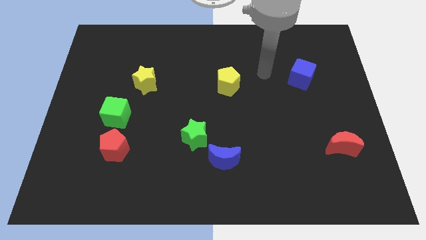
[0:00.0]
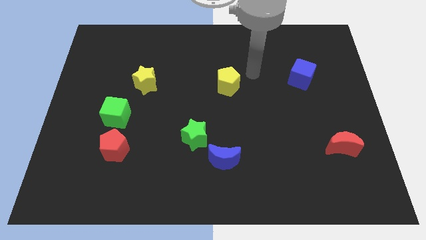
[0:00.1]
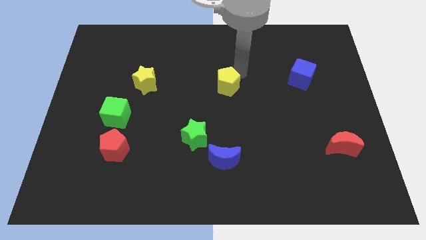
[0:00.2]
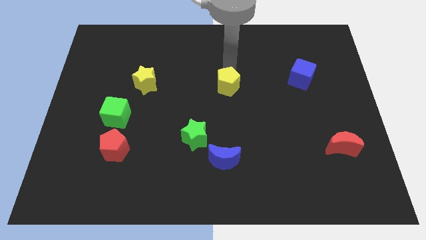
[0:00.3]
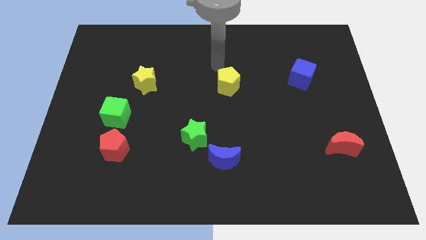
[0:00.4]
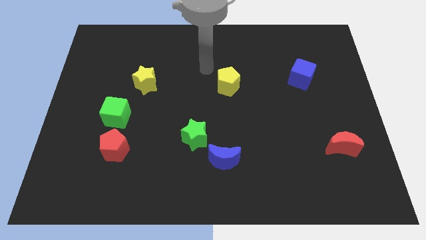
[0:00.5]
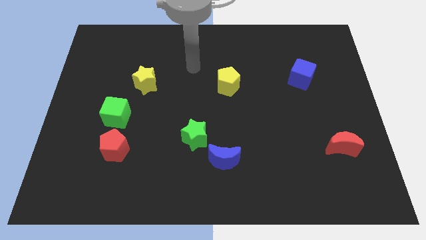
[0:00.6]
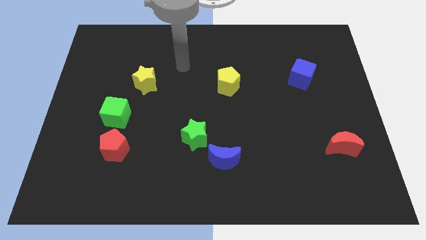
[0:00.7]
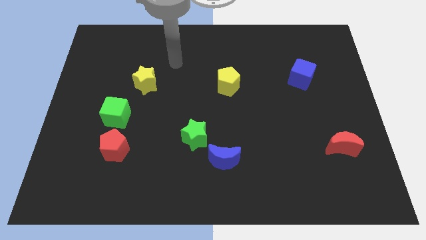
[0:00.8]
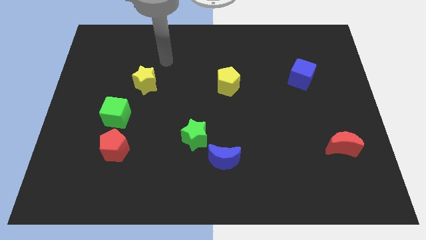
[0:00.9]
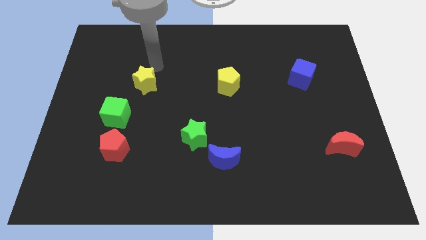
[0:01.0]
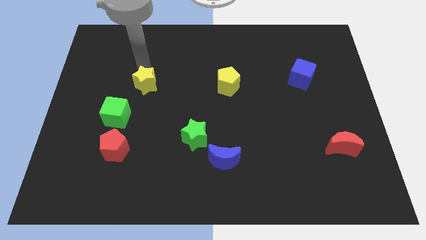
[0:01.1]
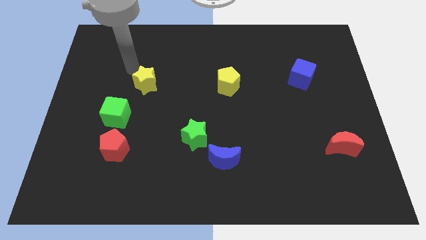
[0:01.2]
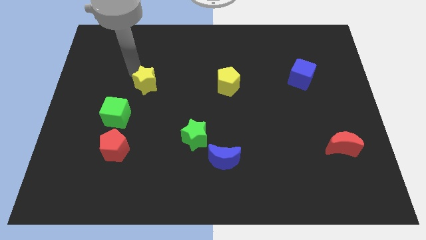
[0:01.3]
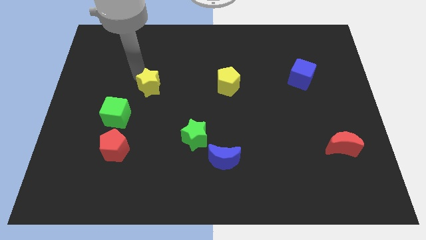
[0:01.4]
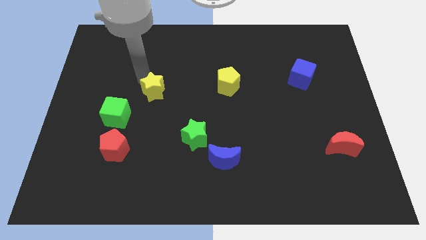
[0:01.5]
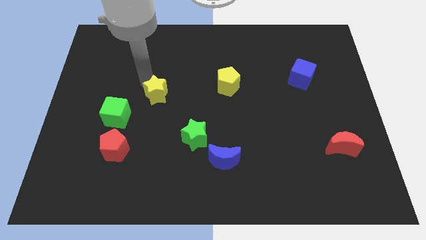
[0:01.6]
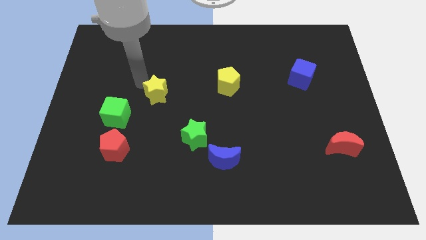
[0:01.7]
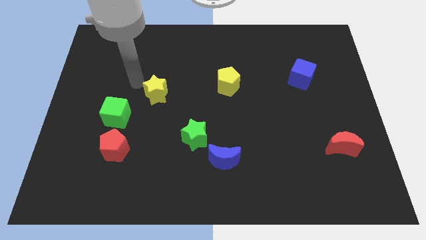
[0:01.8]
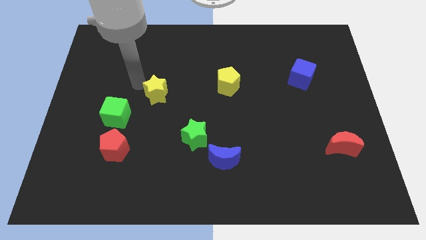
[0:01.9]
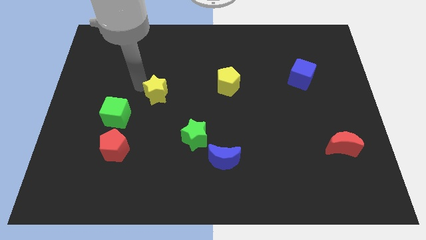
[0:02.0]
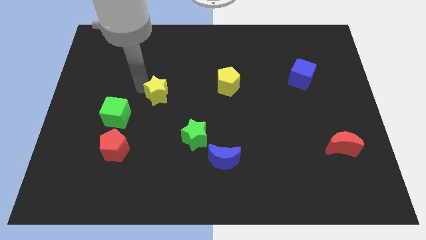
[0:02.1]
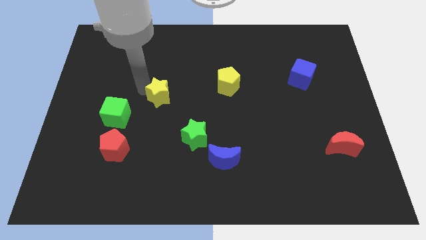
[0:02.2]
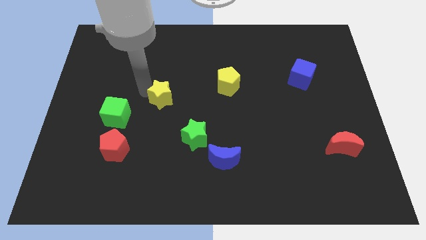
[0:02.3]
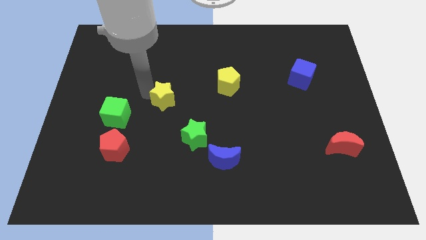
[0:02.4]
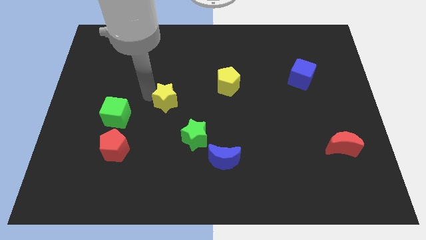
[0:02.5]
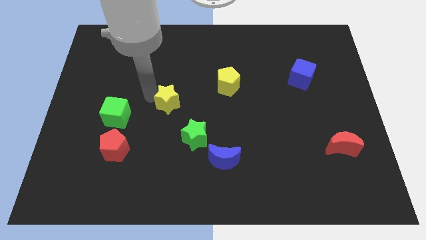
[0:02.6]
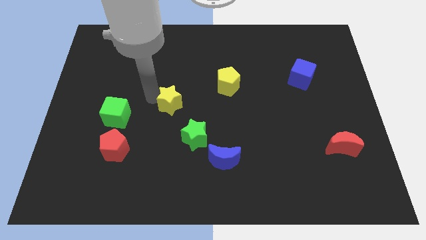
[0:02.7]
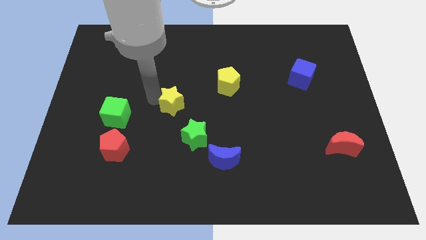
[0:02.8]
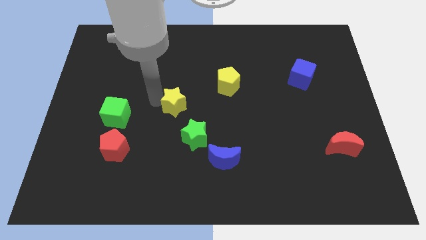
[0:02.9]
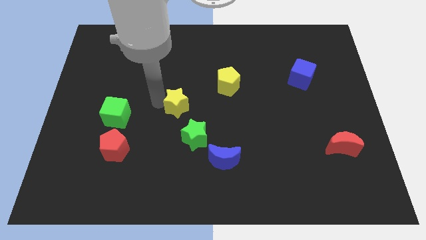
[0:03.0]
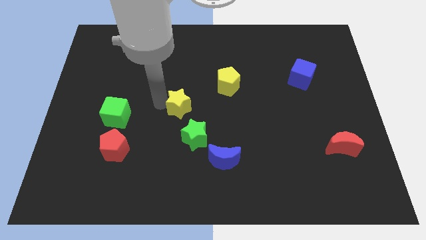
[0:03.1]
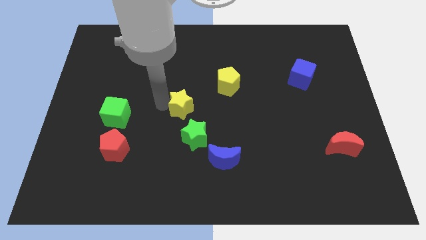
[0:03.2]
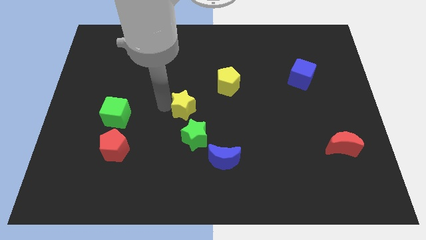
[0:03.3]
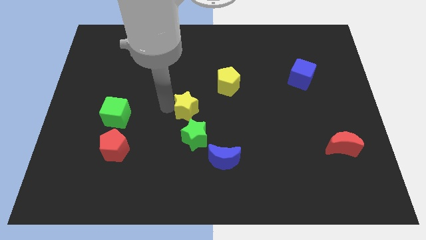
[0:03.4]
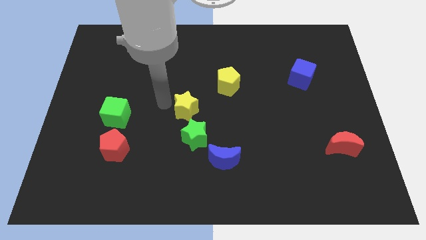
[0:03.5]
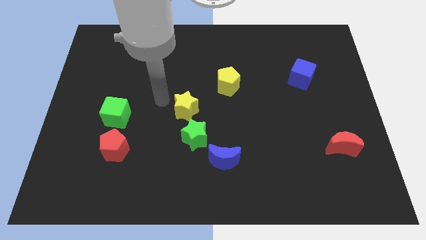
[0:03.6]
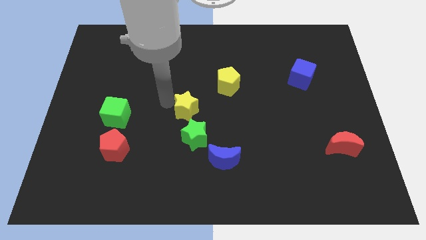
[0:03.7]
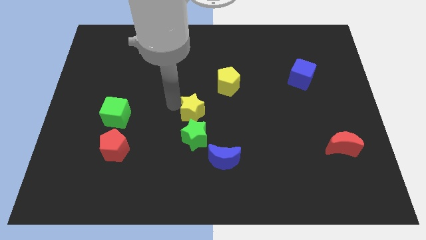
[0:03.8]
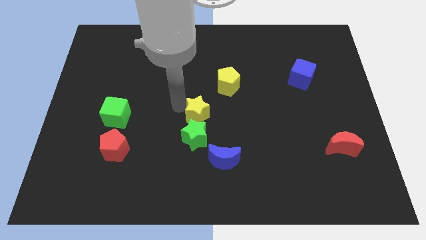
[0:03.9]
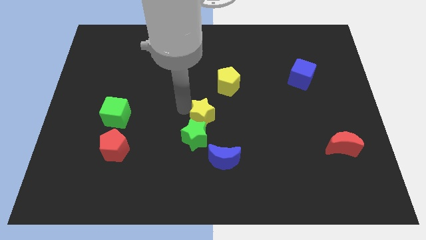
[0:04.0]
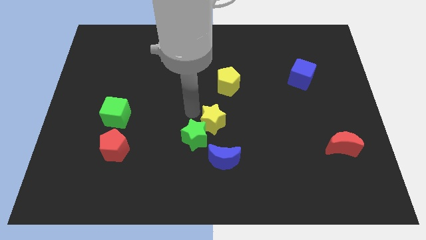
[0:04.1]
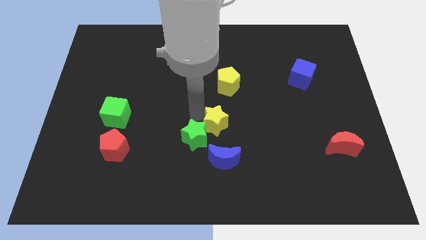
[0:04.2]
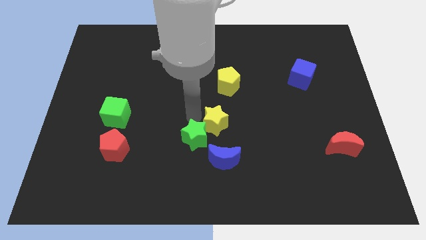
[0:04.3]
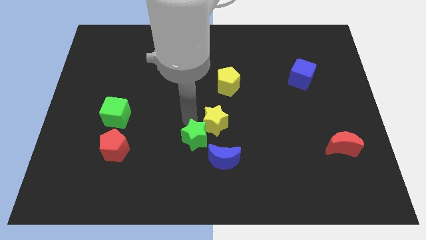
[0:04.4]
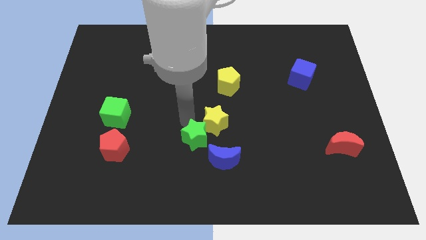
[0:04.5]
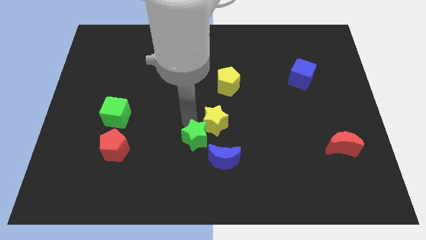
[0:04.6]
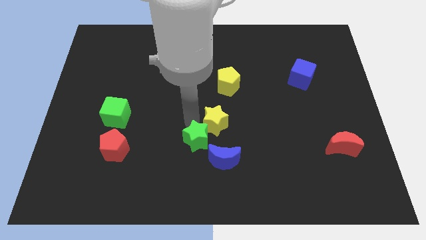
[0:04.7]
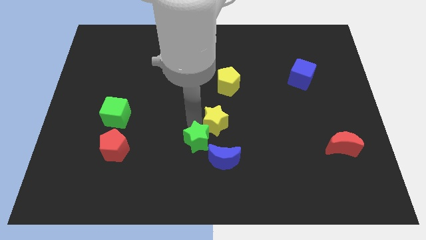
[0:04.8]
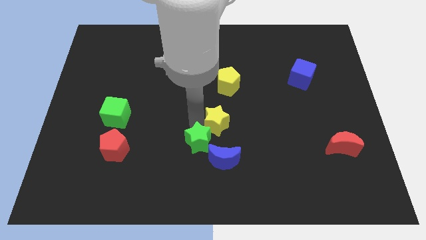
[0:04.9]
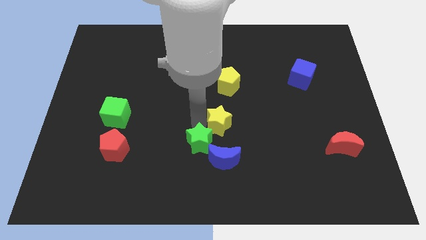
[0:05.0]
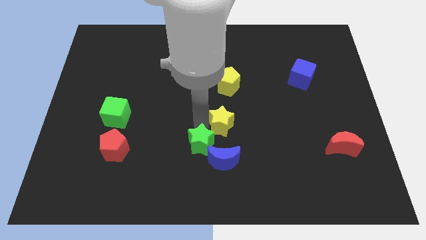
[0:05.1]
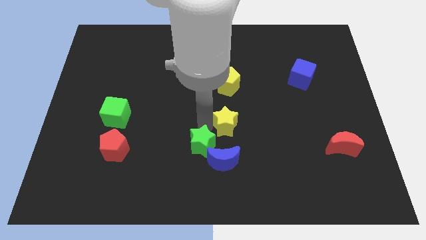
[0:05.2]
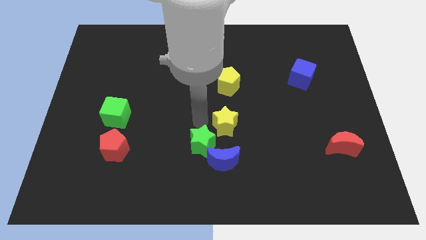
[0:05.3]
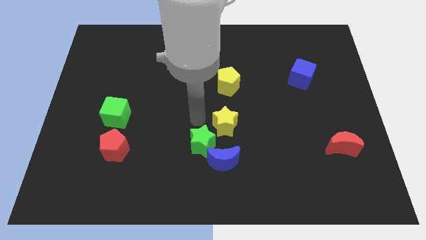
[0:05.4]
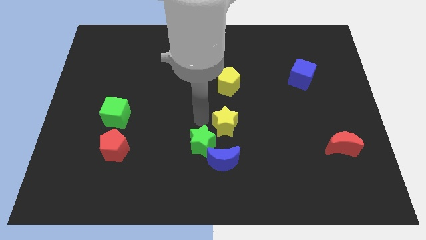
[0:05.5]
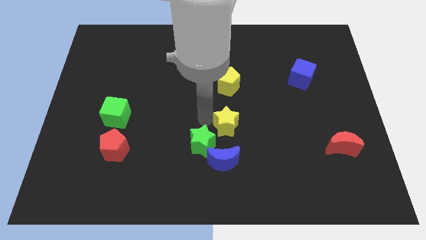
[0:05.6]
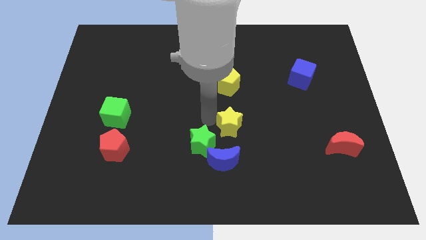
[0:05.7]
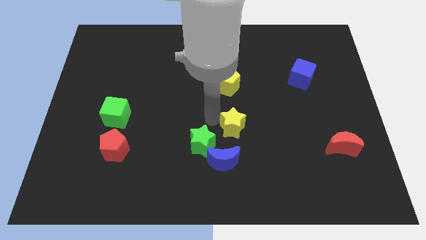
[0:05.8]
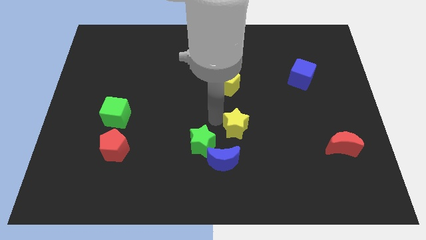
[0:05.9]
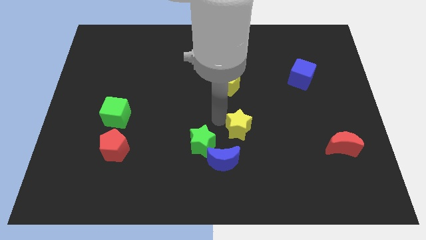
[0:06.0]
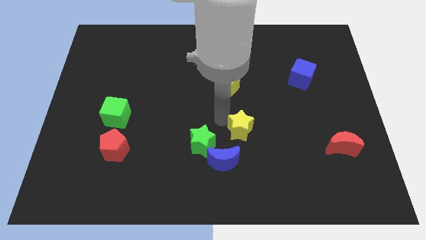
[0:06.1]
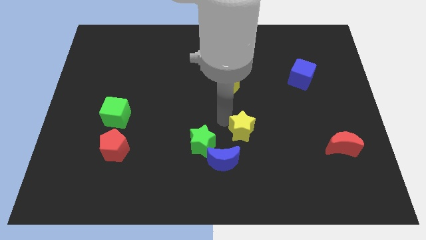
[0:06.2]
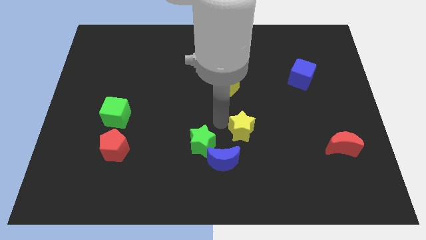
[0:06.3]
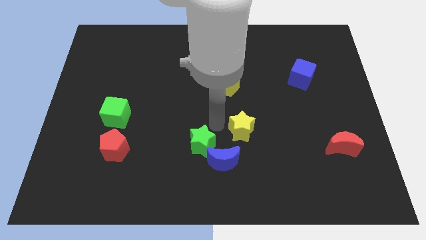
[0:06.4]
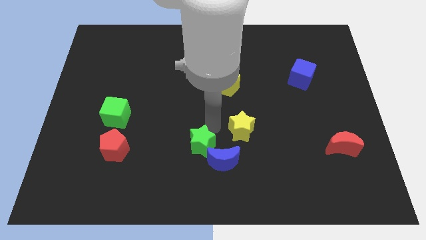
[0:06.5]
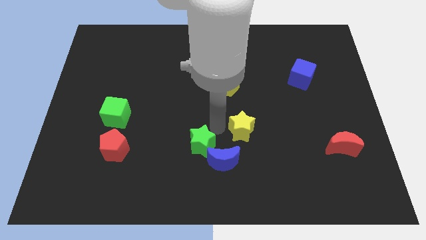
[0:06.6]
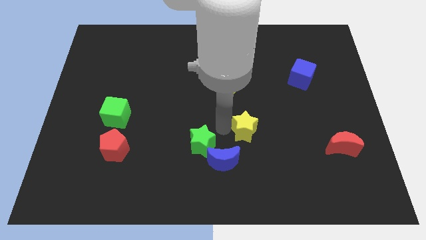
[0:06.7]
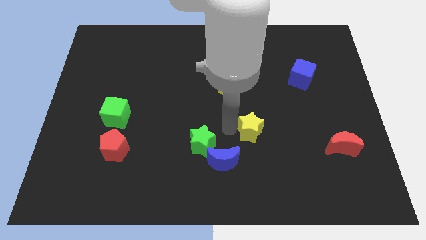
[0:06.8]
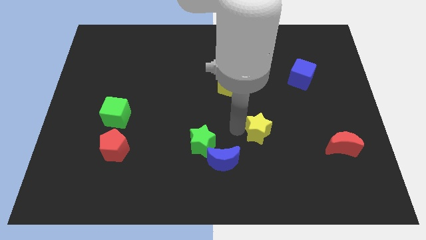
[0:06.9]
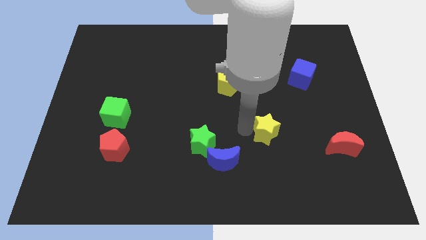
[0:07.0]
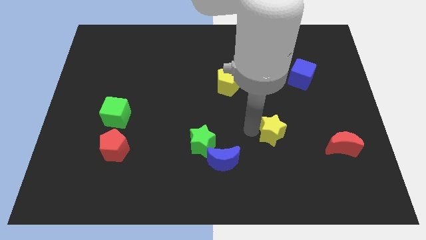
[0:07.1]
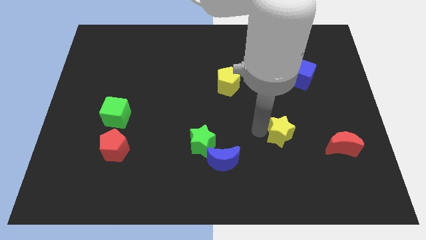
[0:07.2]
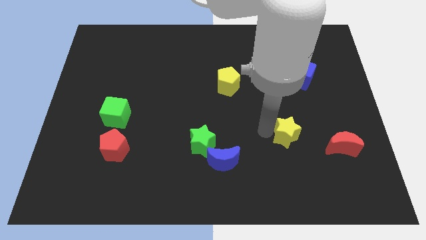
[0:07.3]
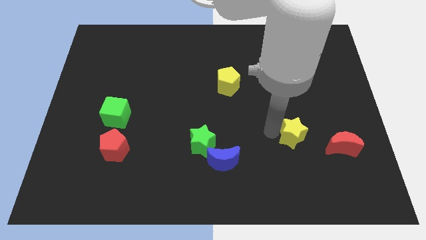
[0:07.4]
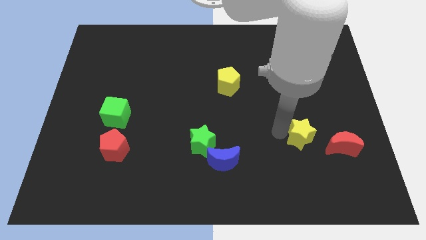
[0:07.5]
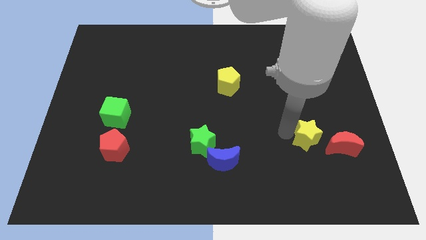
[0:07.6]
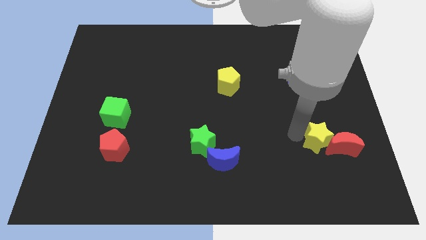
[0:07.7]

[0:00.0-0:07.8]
move the yellow star next to the red moon
